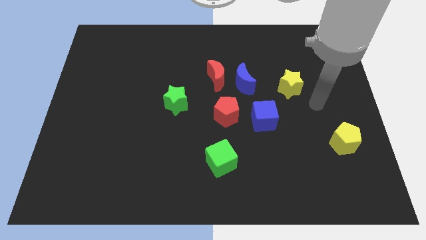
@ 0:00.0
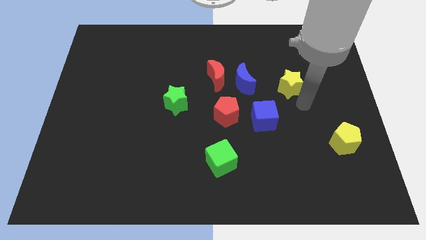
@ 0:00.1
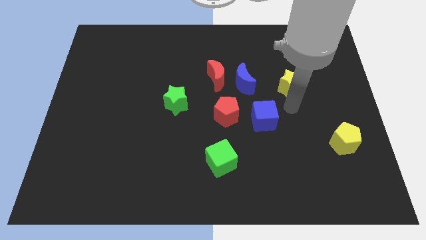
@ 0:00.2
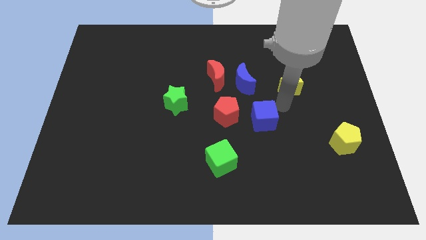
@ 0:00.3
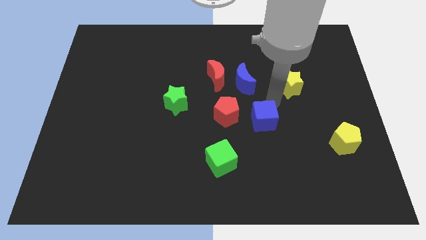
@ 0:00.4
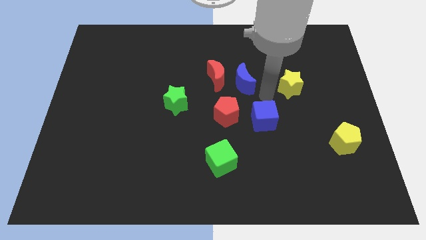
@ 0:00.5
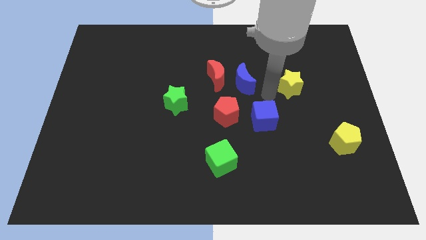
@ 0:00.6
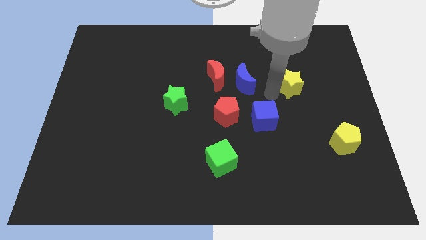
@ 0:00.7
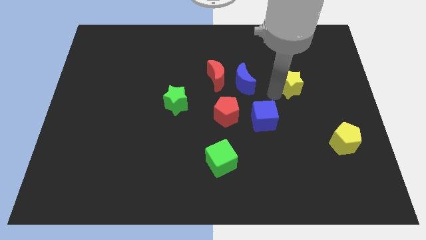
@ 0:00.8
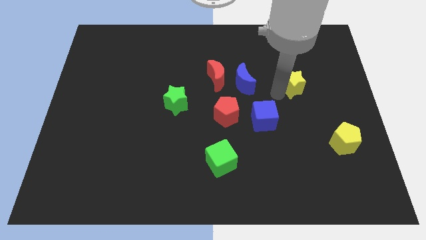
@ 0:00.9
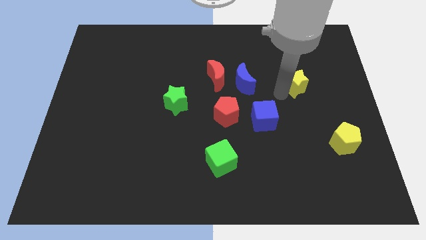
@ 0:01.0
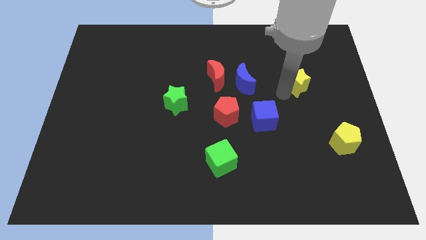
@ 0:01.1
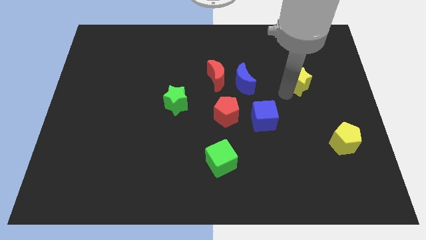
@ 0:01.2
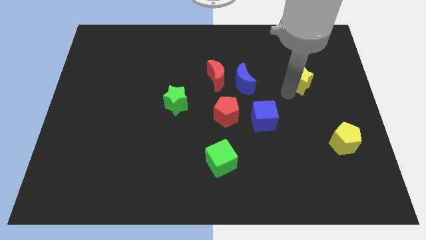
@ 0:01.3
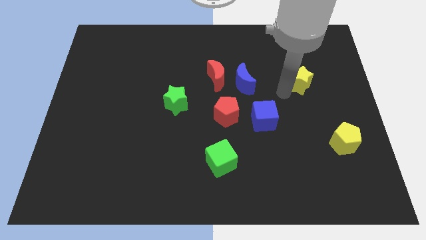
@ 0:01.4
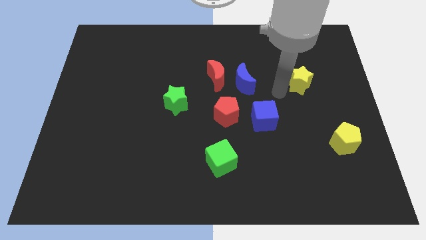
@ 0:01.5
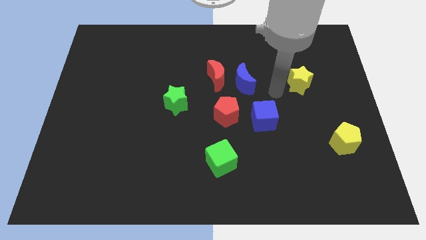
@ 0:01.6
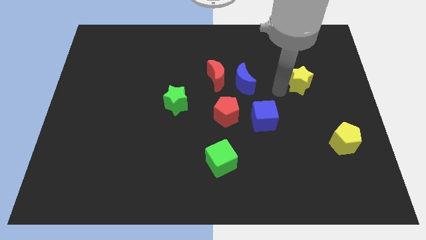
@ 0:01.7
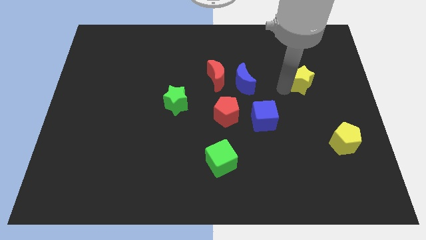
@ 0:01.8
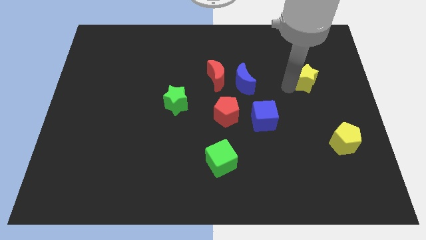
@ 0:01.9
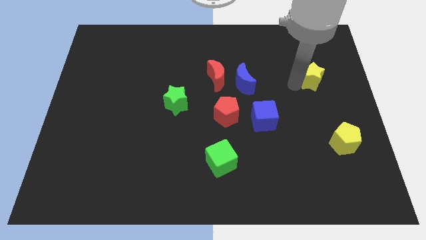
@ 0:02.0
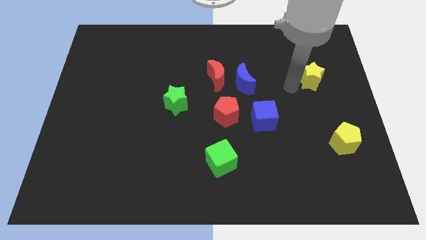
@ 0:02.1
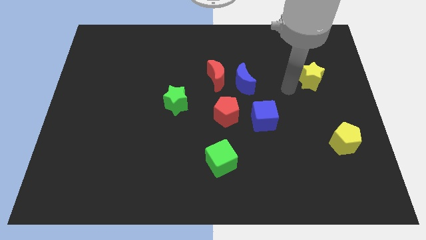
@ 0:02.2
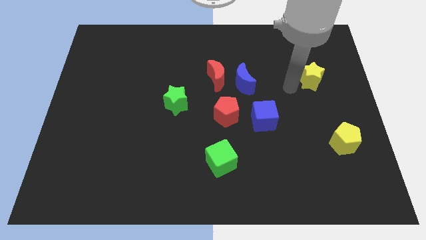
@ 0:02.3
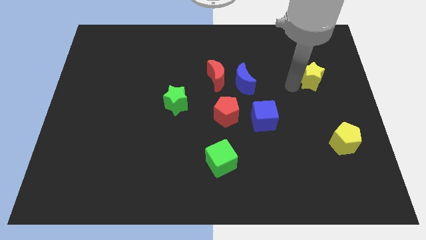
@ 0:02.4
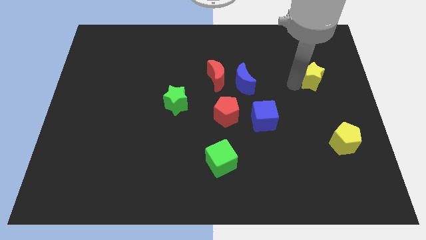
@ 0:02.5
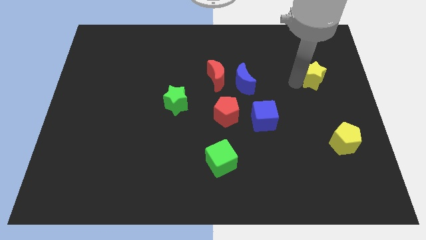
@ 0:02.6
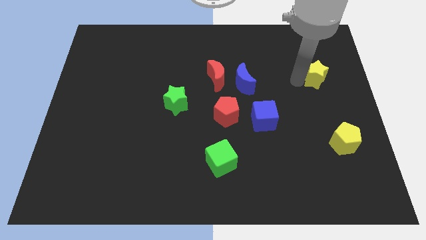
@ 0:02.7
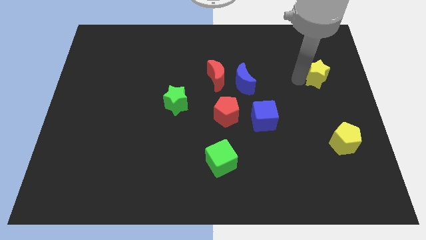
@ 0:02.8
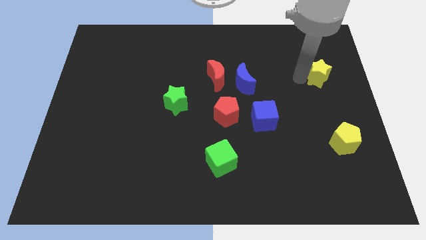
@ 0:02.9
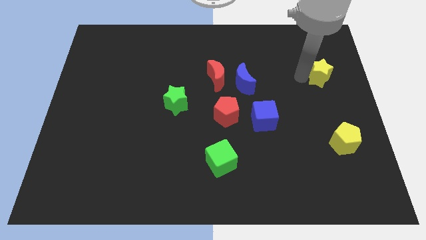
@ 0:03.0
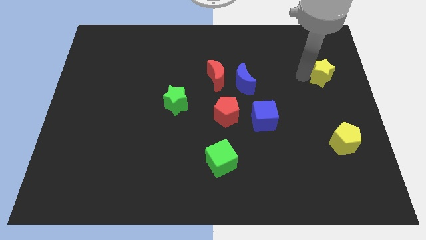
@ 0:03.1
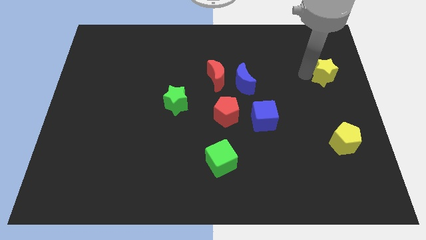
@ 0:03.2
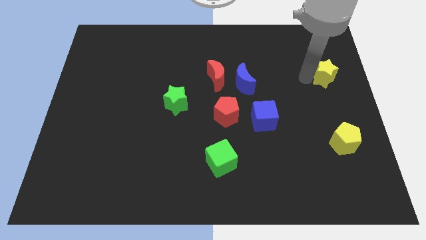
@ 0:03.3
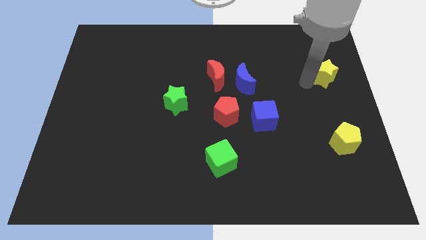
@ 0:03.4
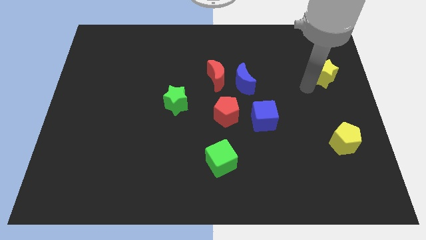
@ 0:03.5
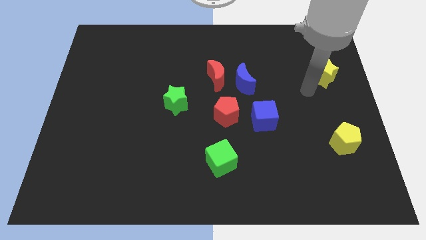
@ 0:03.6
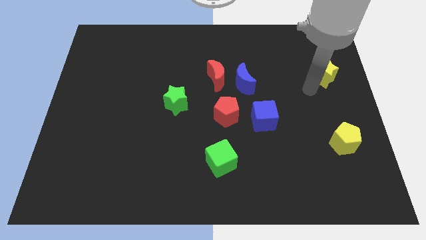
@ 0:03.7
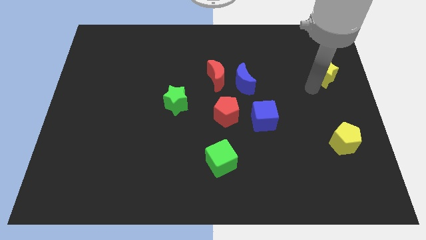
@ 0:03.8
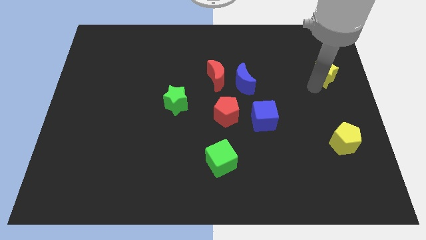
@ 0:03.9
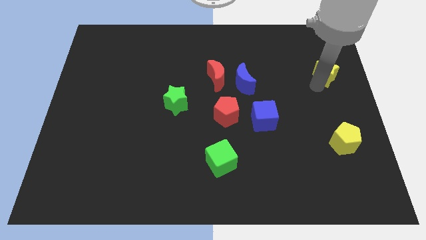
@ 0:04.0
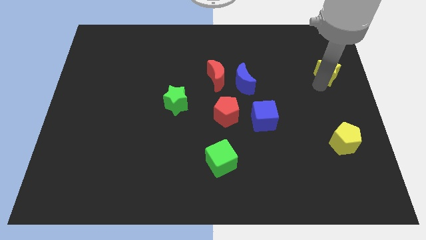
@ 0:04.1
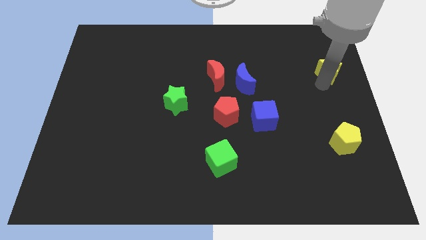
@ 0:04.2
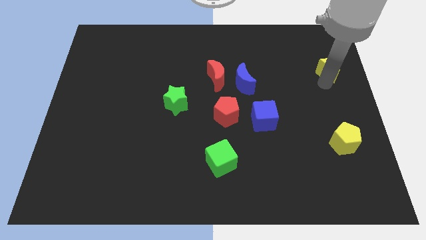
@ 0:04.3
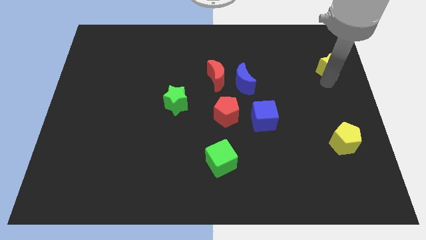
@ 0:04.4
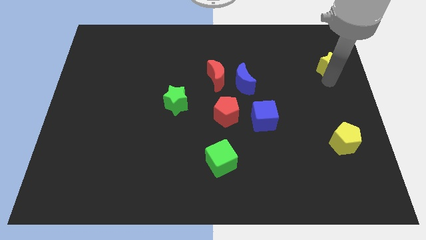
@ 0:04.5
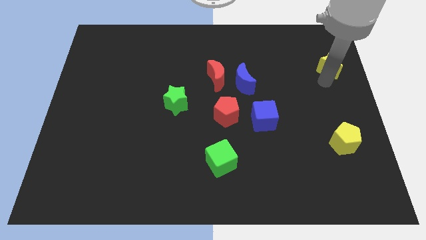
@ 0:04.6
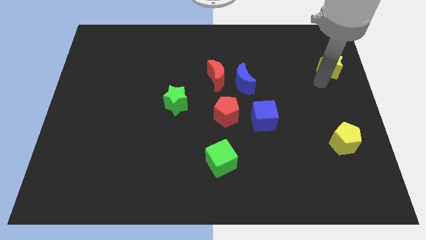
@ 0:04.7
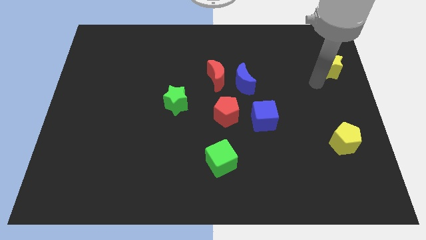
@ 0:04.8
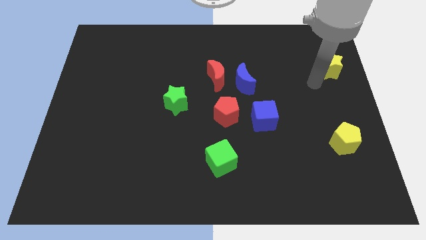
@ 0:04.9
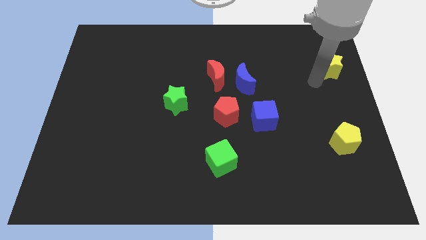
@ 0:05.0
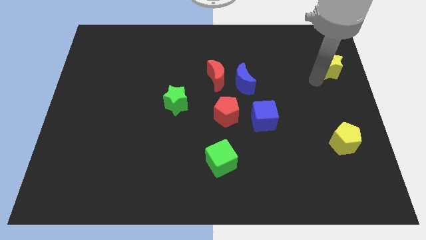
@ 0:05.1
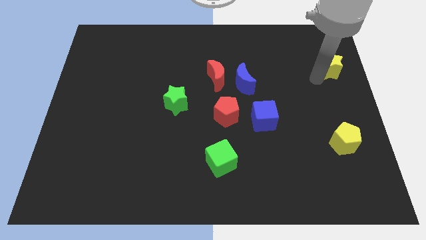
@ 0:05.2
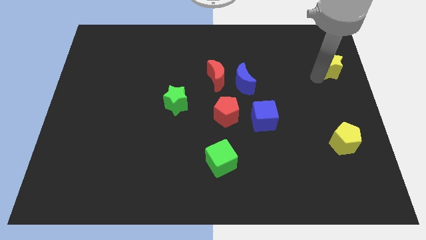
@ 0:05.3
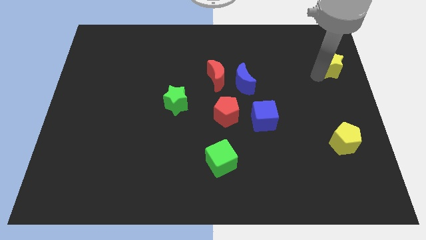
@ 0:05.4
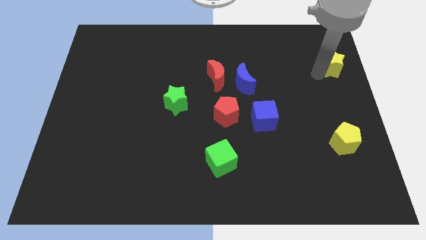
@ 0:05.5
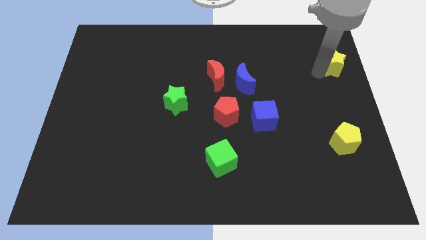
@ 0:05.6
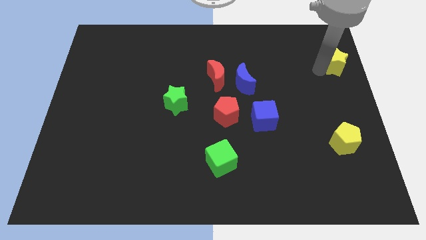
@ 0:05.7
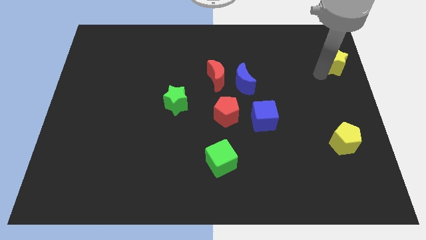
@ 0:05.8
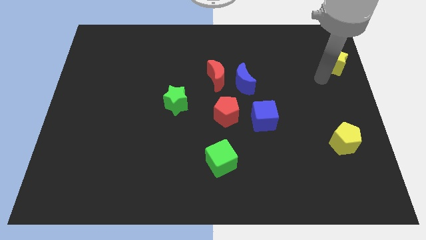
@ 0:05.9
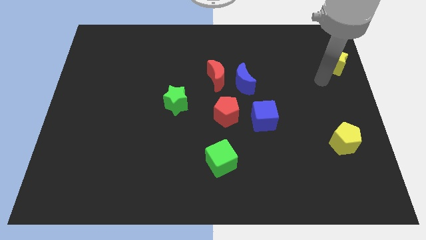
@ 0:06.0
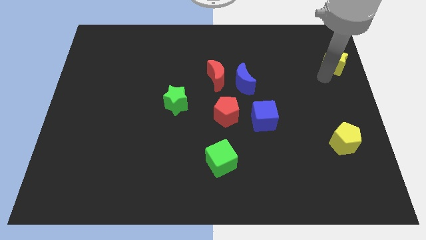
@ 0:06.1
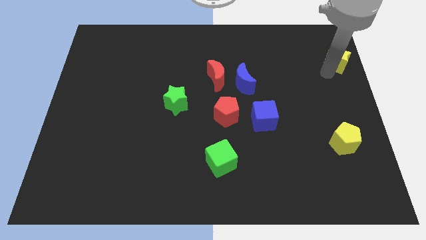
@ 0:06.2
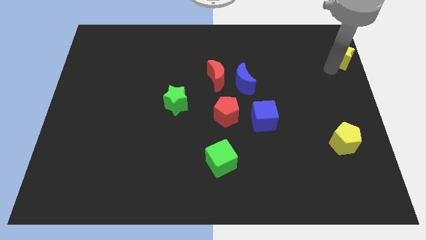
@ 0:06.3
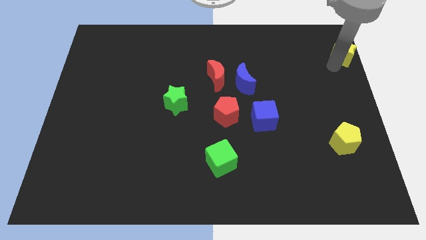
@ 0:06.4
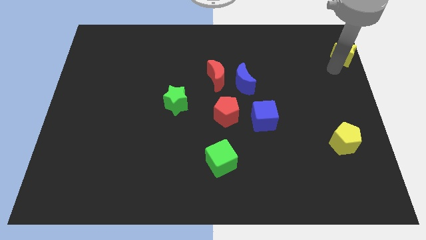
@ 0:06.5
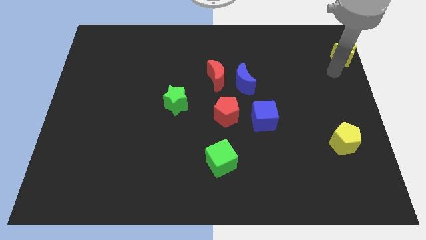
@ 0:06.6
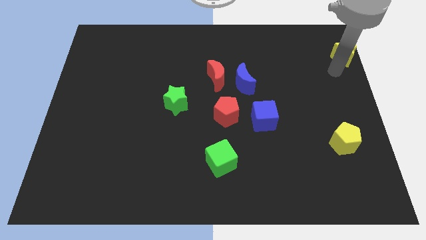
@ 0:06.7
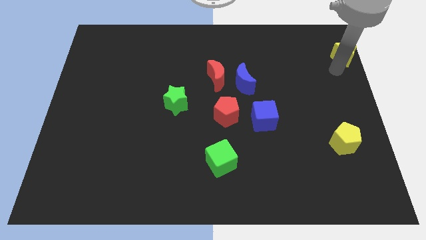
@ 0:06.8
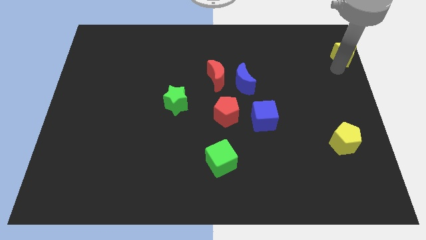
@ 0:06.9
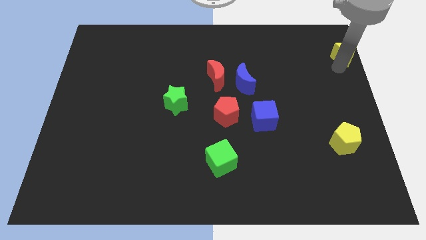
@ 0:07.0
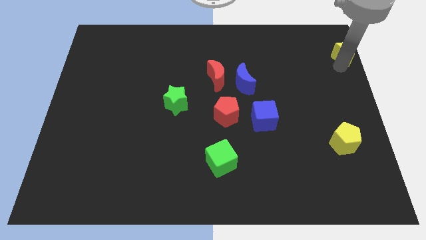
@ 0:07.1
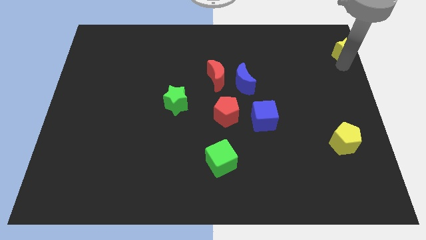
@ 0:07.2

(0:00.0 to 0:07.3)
move the yellow star to the top right
